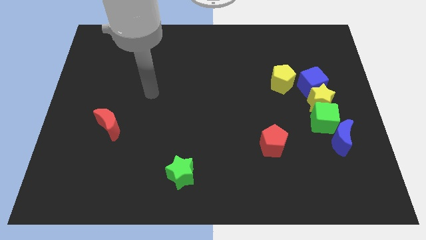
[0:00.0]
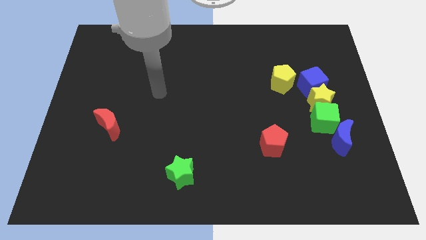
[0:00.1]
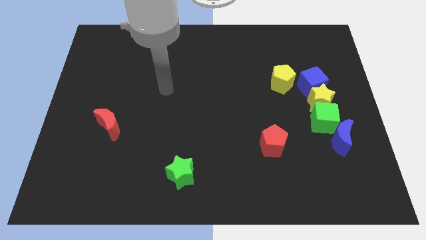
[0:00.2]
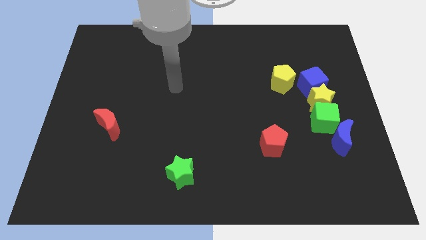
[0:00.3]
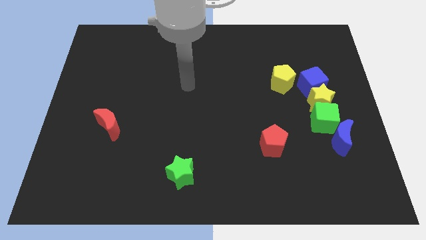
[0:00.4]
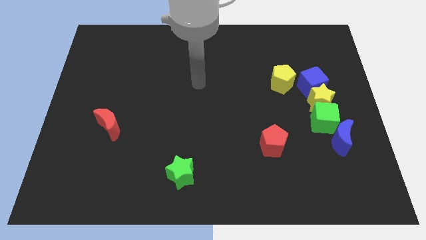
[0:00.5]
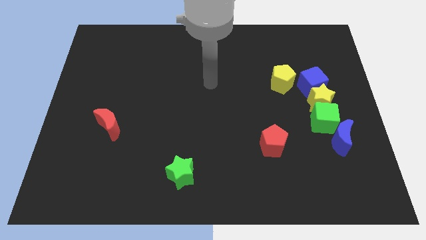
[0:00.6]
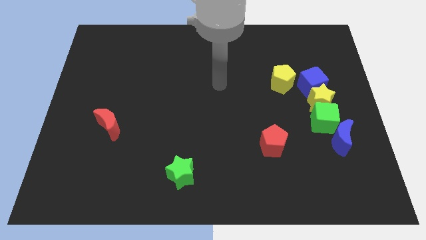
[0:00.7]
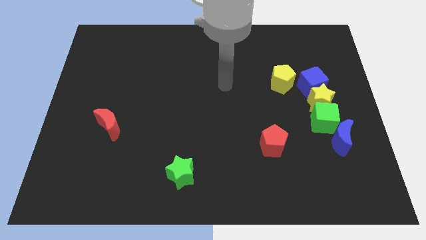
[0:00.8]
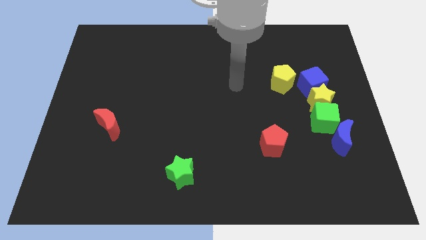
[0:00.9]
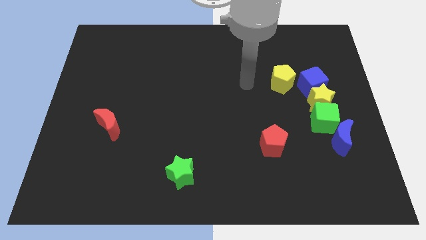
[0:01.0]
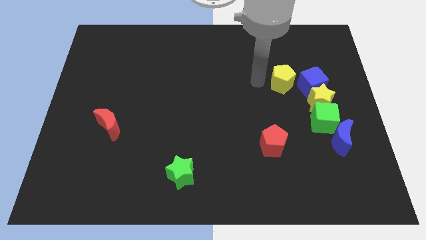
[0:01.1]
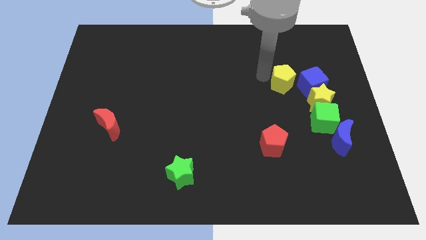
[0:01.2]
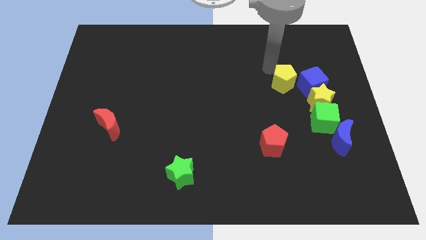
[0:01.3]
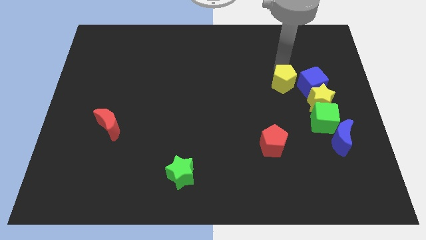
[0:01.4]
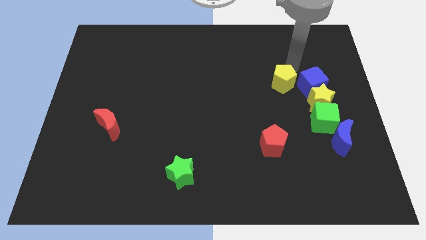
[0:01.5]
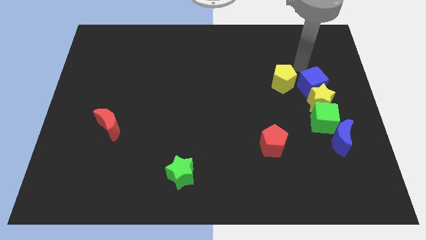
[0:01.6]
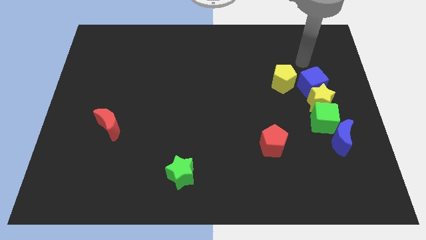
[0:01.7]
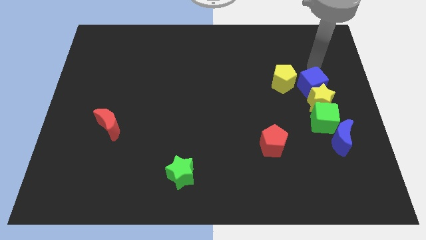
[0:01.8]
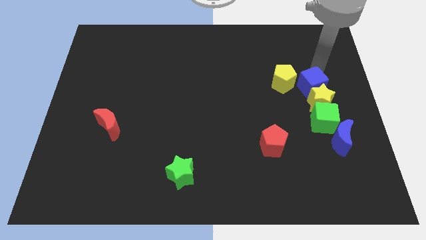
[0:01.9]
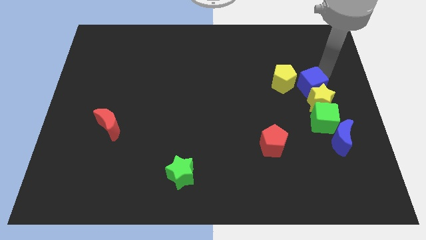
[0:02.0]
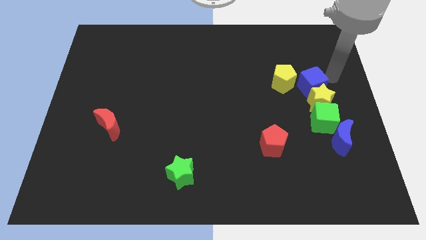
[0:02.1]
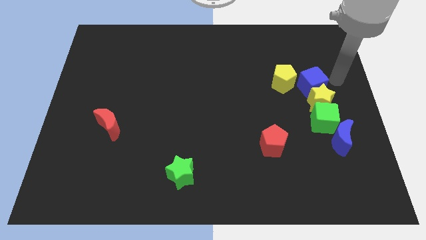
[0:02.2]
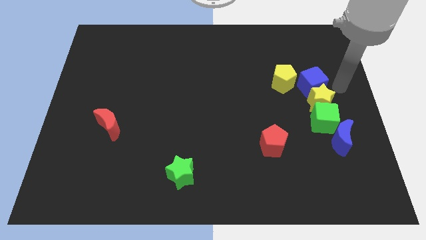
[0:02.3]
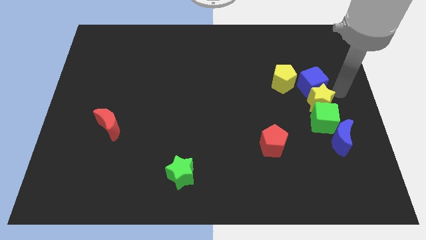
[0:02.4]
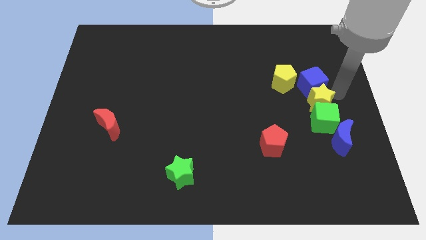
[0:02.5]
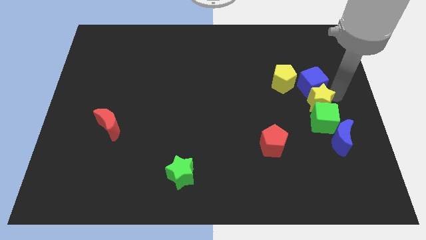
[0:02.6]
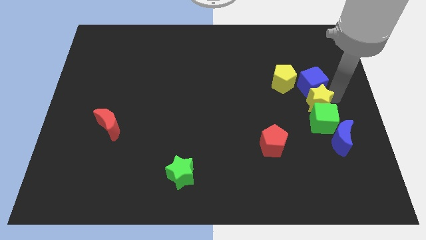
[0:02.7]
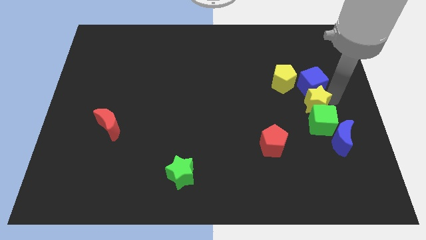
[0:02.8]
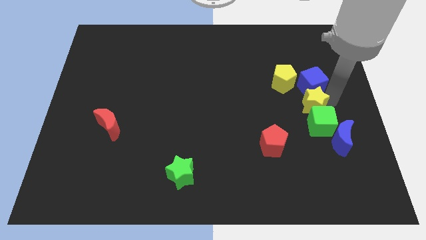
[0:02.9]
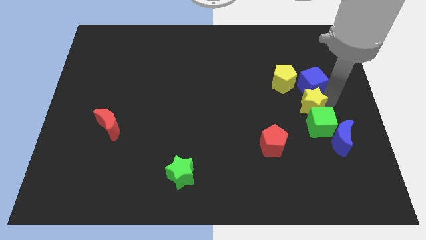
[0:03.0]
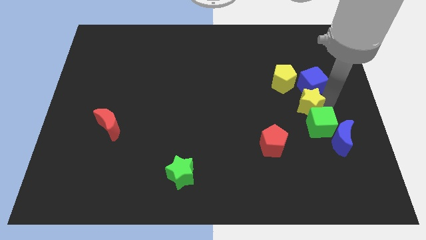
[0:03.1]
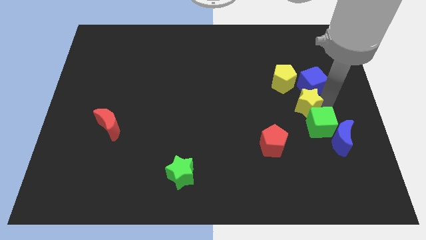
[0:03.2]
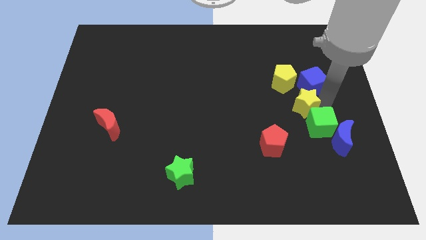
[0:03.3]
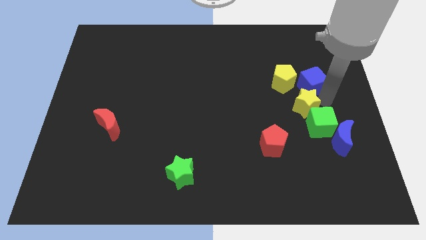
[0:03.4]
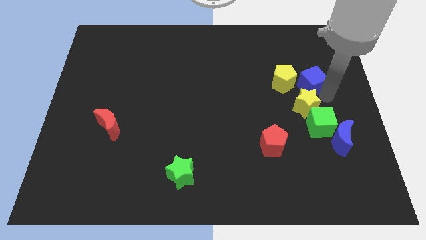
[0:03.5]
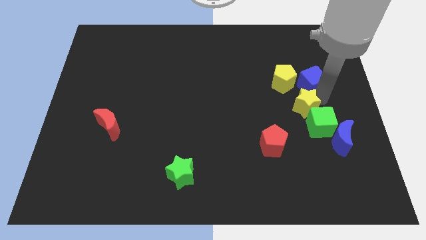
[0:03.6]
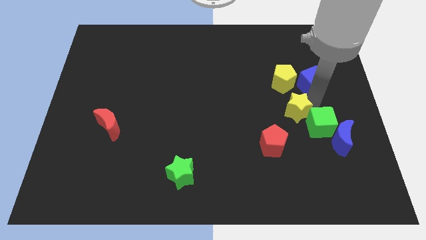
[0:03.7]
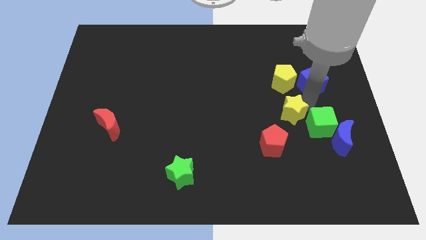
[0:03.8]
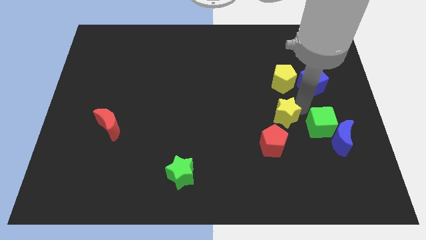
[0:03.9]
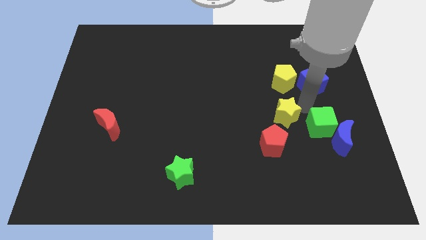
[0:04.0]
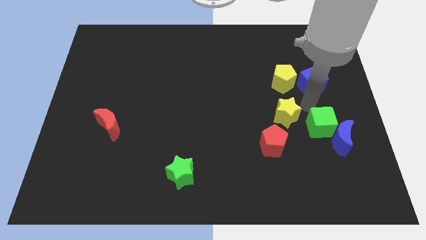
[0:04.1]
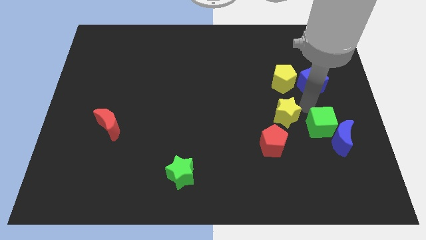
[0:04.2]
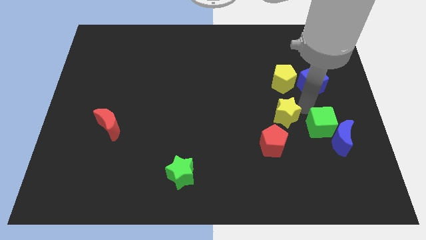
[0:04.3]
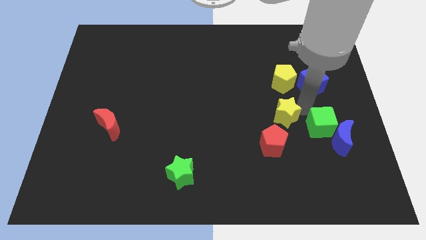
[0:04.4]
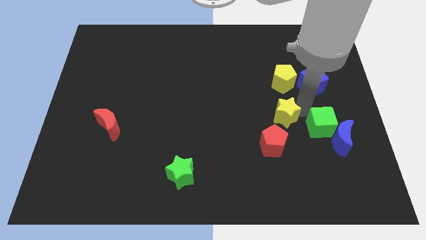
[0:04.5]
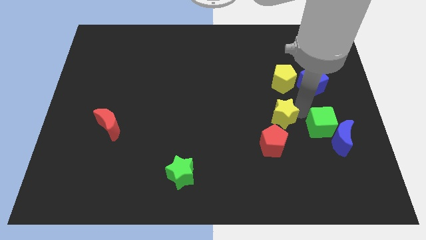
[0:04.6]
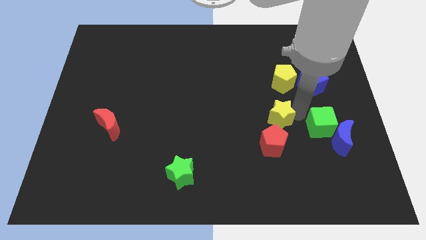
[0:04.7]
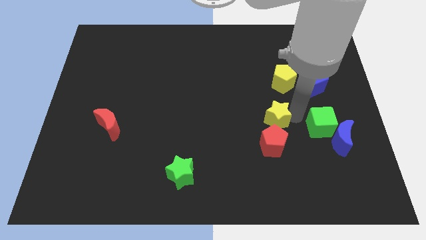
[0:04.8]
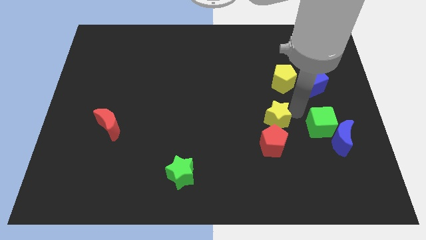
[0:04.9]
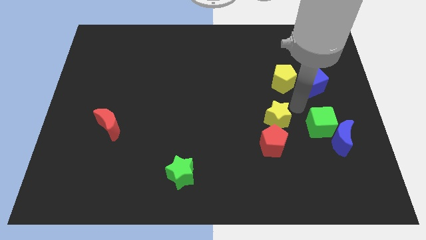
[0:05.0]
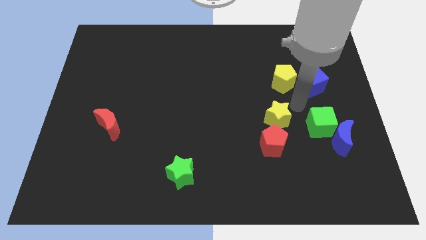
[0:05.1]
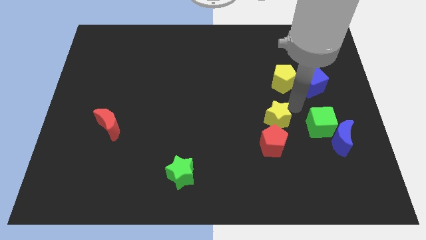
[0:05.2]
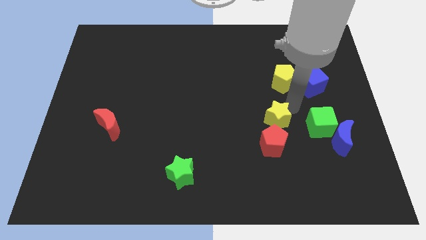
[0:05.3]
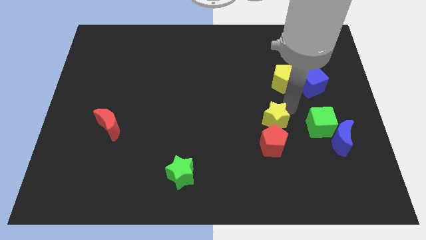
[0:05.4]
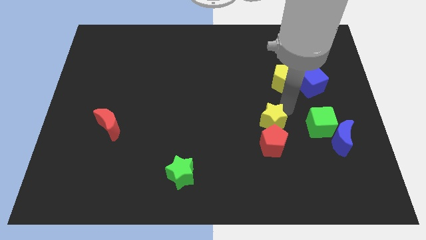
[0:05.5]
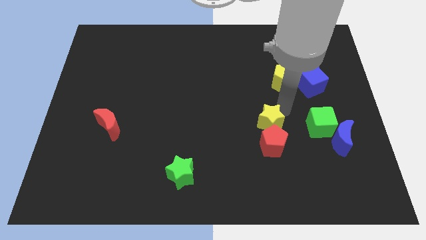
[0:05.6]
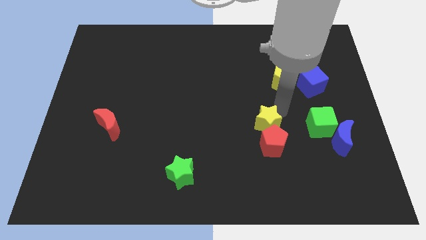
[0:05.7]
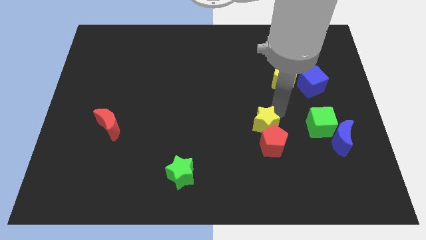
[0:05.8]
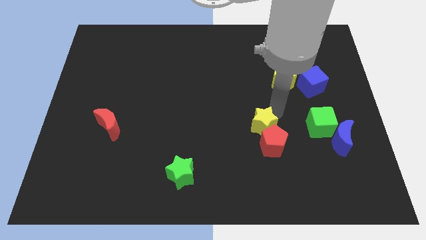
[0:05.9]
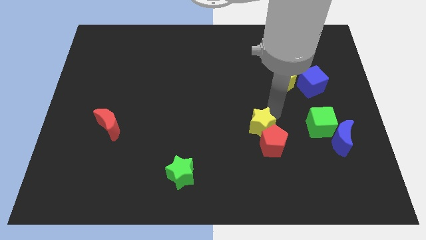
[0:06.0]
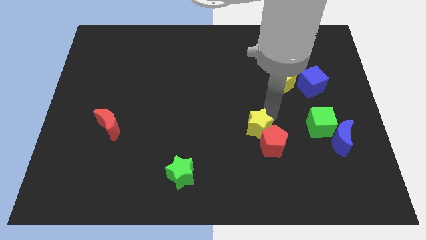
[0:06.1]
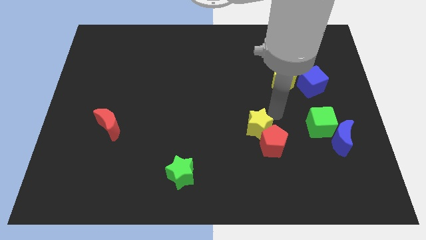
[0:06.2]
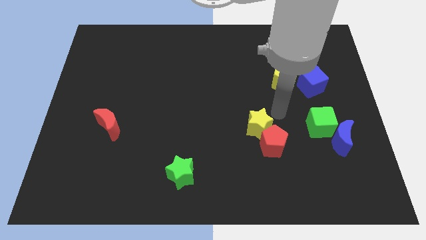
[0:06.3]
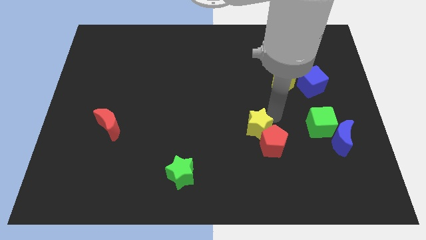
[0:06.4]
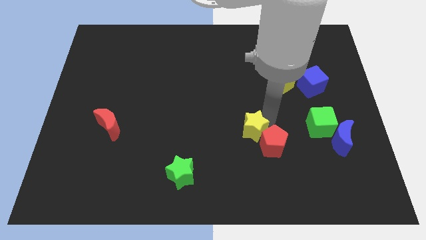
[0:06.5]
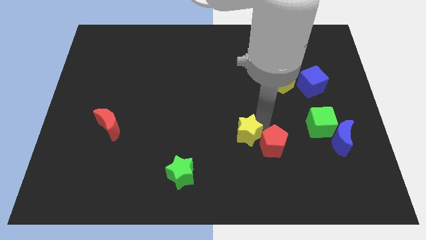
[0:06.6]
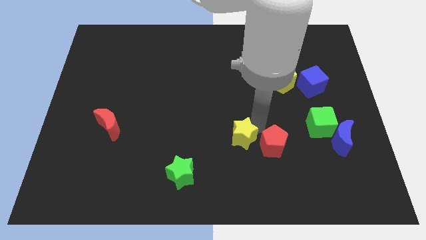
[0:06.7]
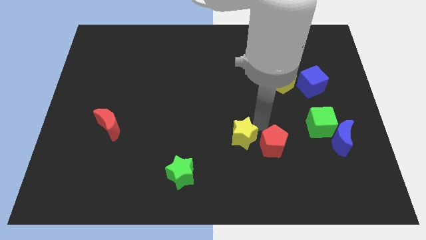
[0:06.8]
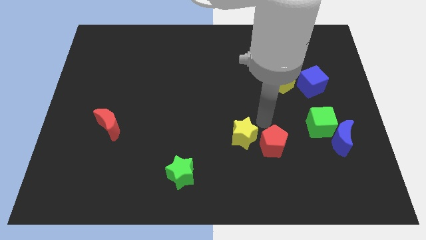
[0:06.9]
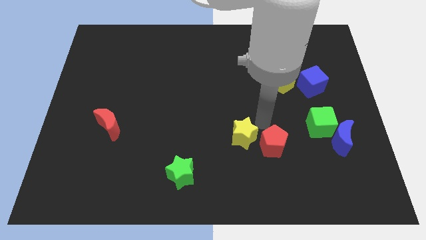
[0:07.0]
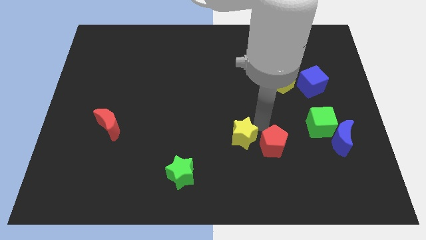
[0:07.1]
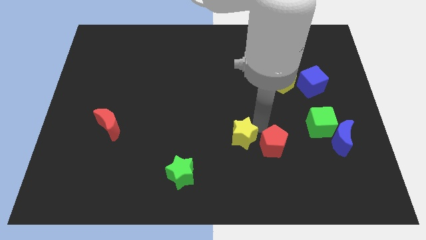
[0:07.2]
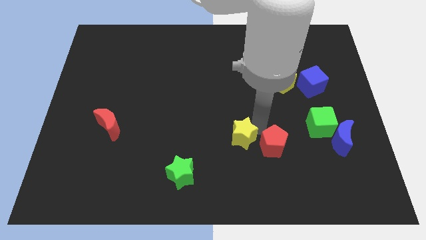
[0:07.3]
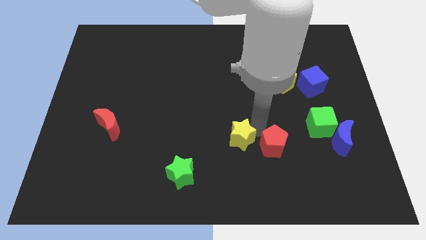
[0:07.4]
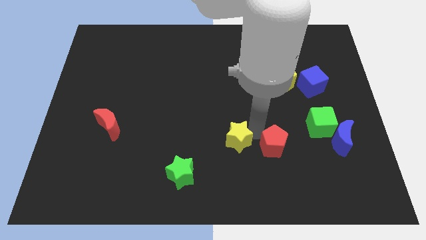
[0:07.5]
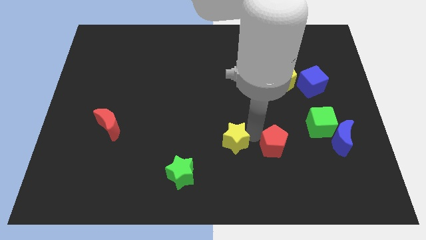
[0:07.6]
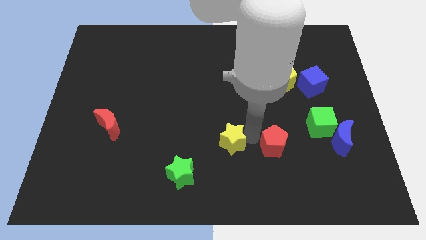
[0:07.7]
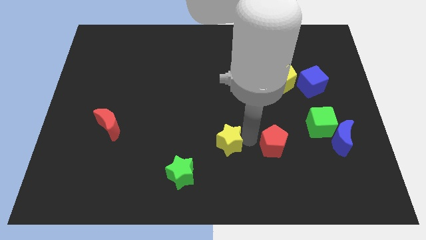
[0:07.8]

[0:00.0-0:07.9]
push the yellow star to the top right side of the green star

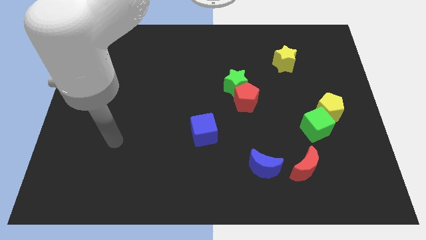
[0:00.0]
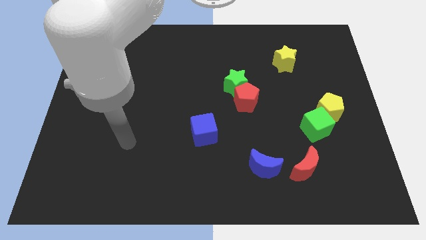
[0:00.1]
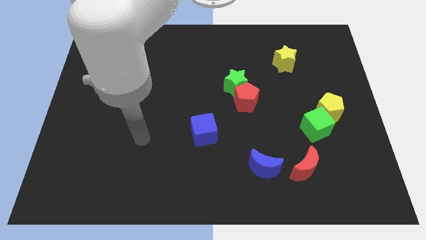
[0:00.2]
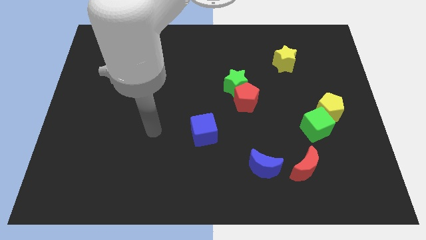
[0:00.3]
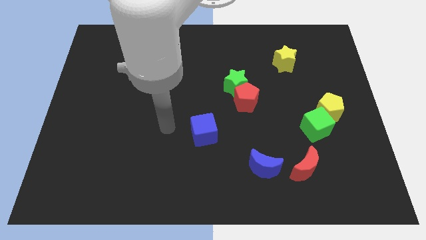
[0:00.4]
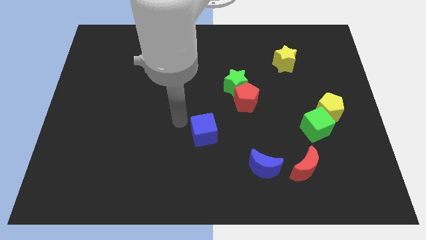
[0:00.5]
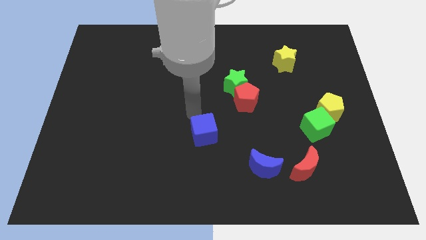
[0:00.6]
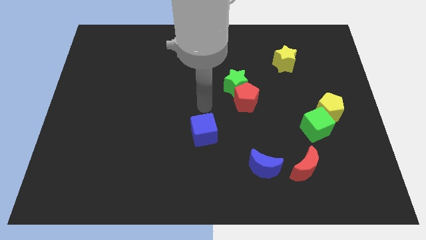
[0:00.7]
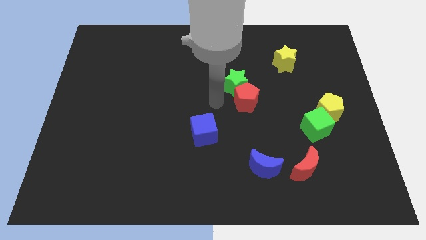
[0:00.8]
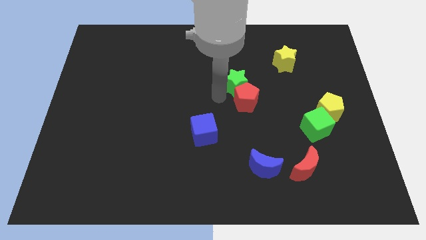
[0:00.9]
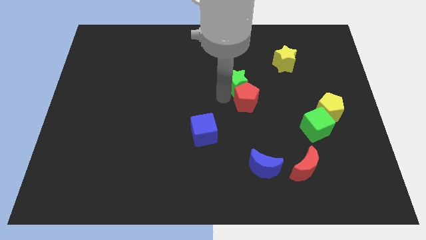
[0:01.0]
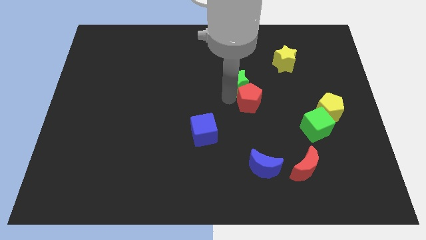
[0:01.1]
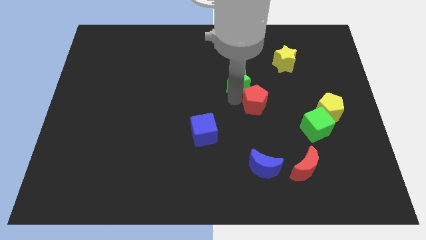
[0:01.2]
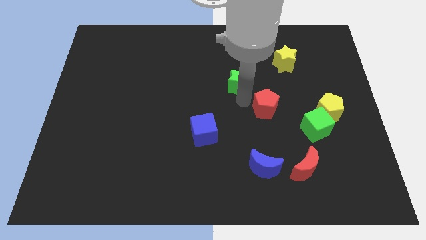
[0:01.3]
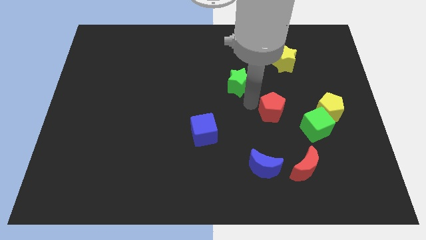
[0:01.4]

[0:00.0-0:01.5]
move the red pentagon diagonally up and to the left of the green cube
